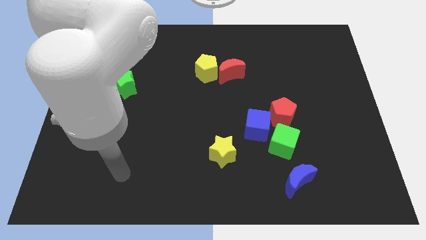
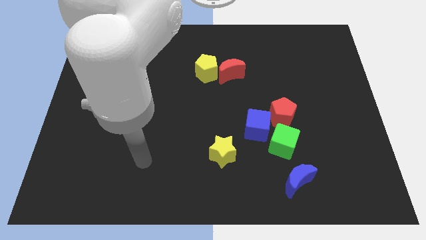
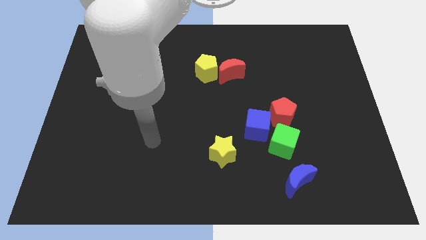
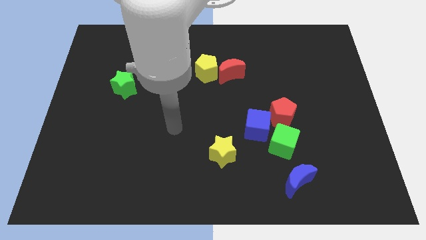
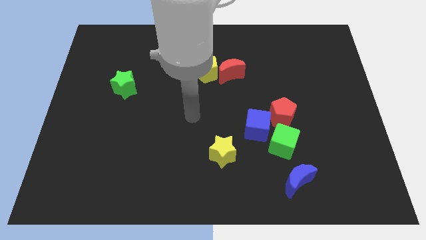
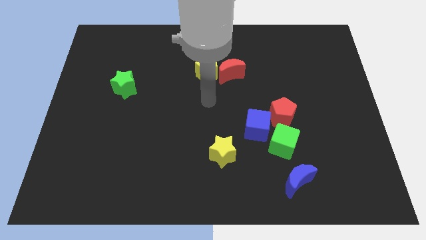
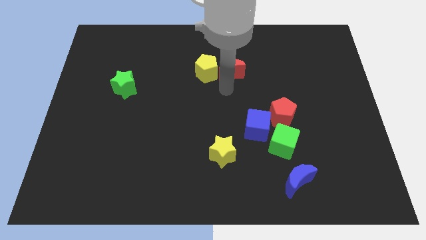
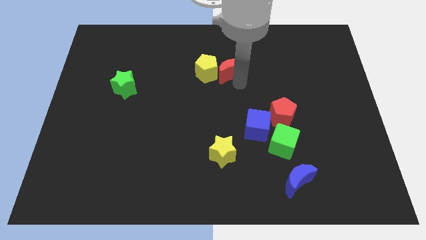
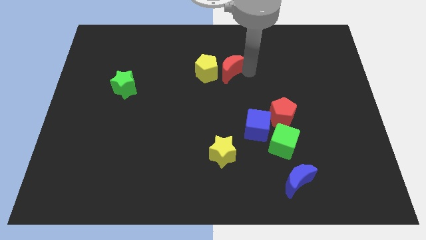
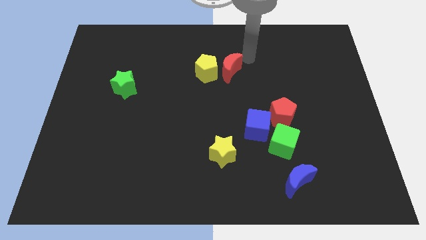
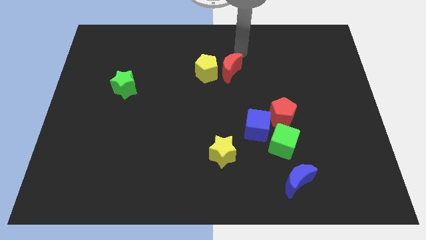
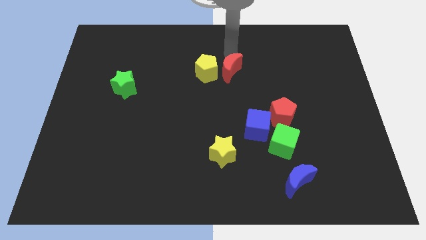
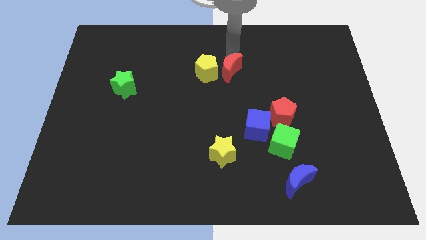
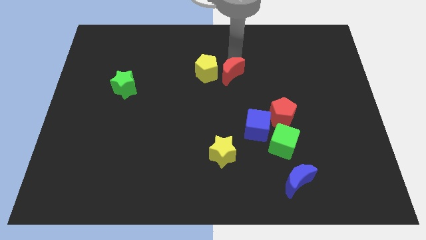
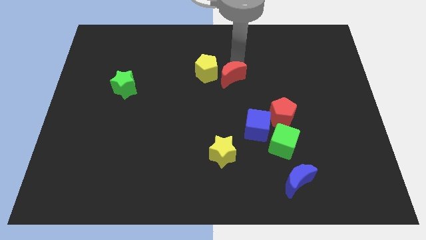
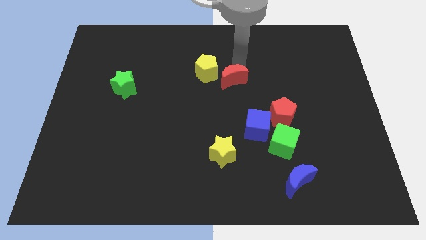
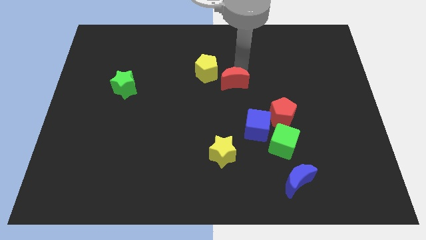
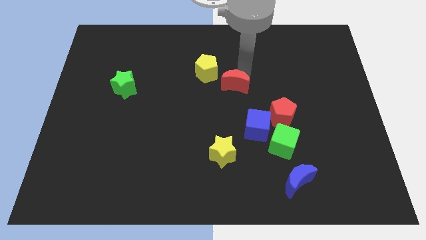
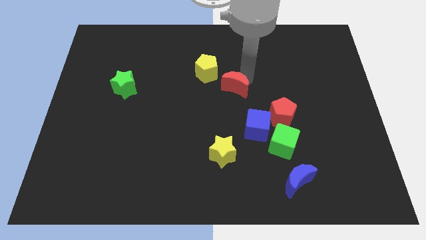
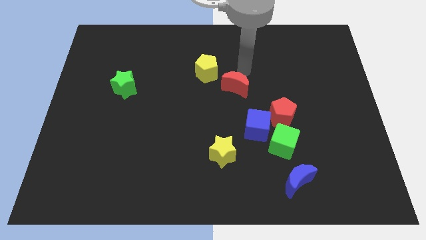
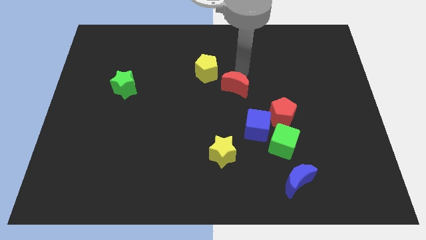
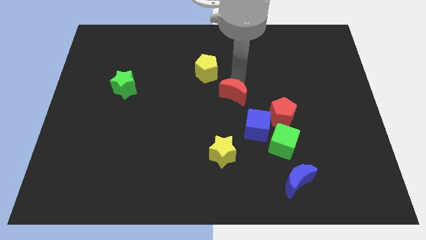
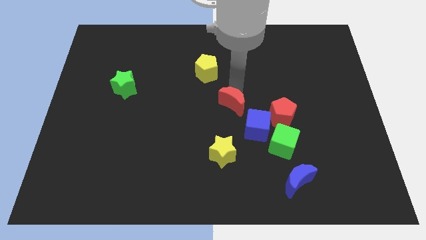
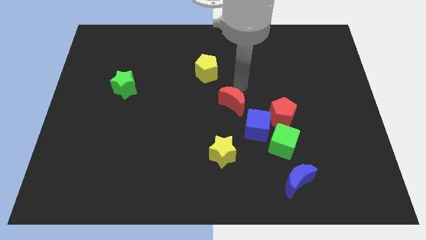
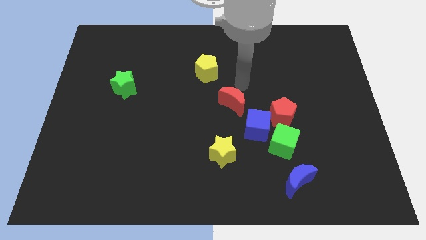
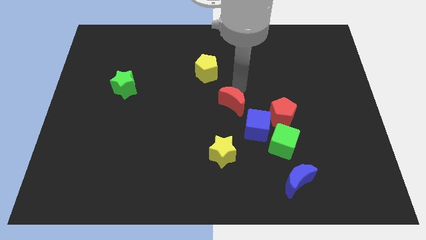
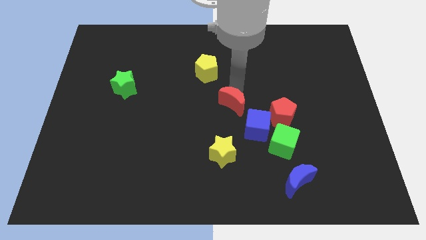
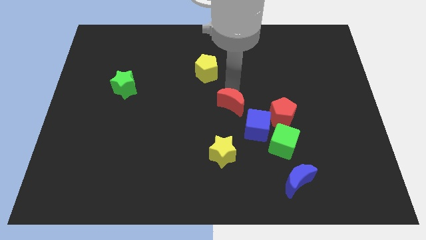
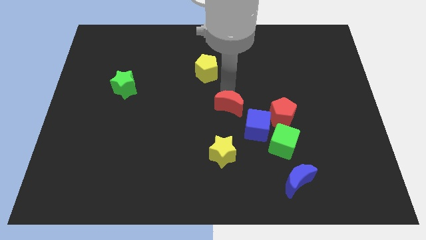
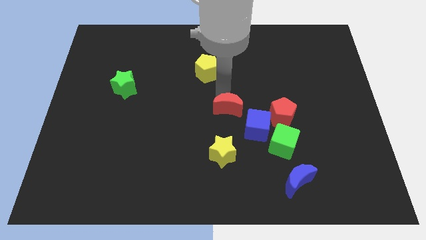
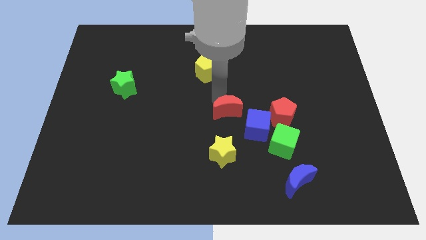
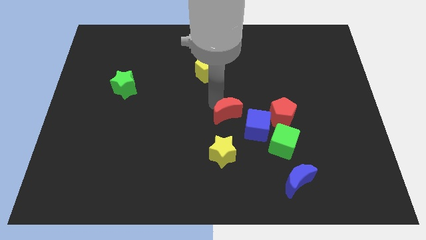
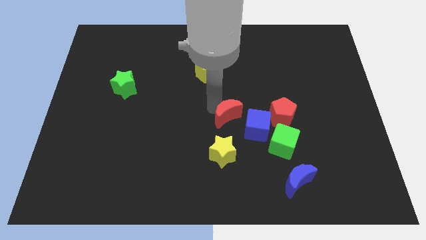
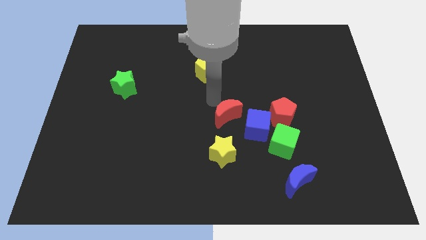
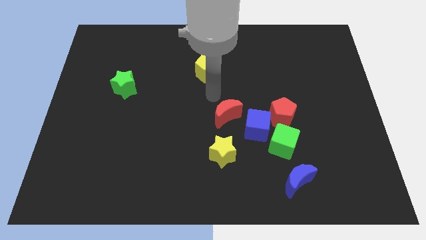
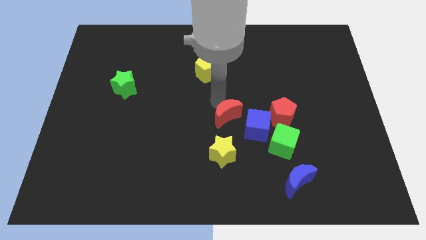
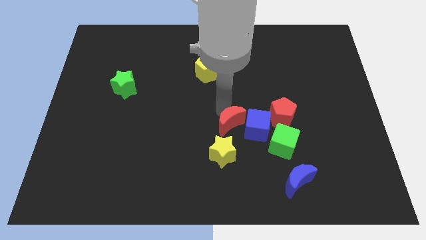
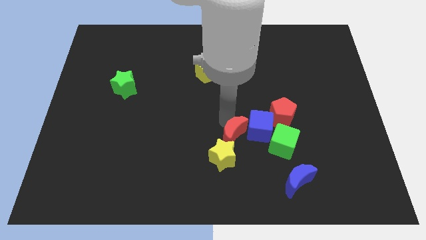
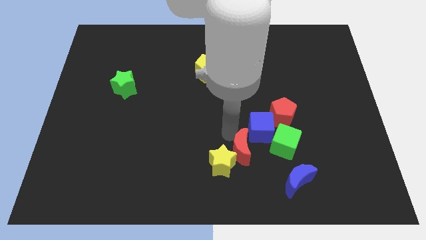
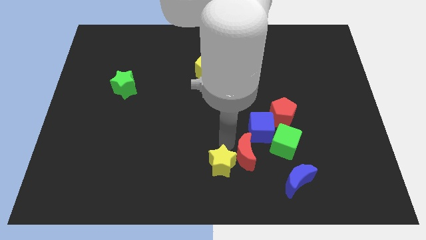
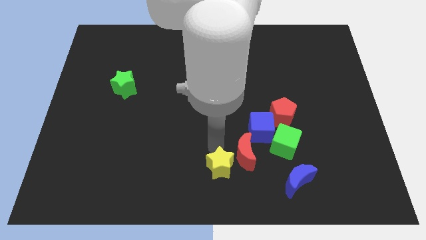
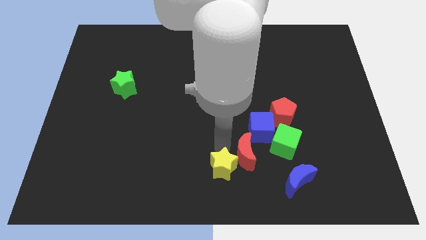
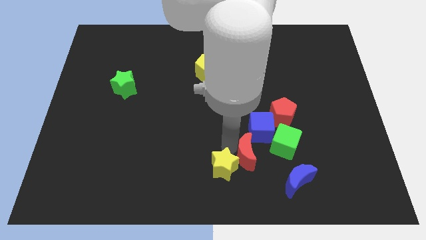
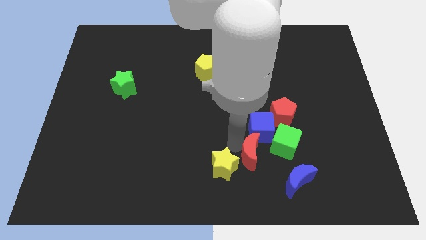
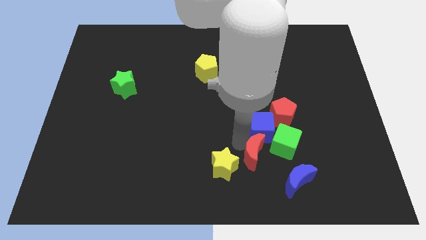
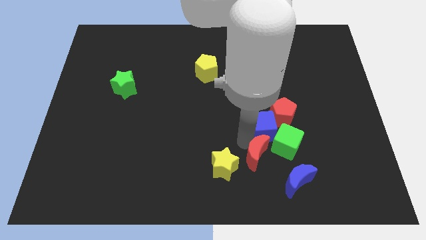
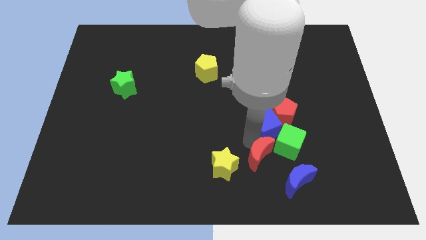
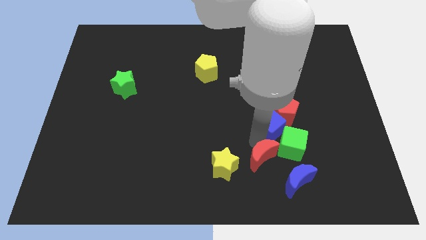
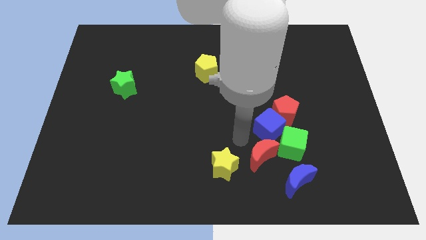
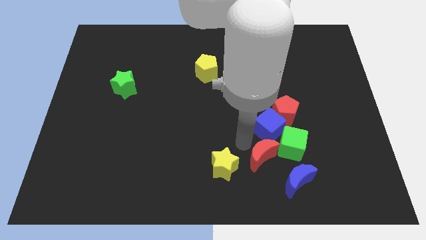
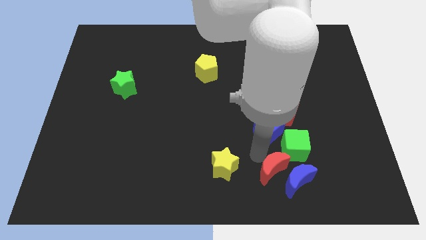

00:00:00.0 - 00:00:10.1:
move the red moon towards the blue moon
